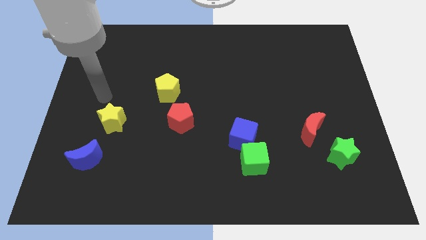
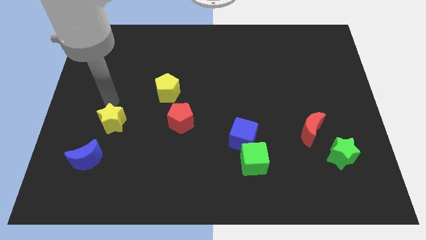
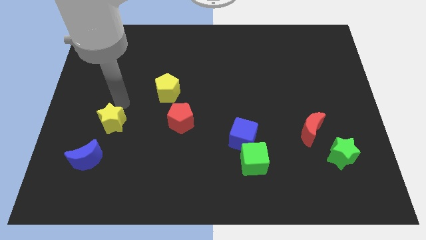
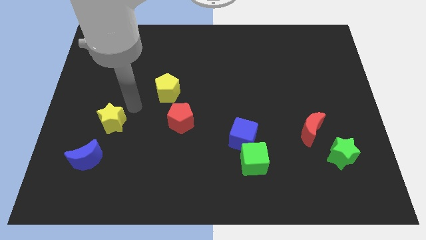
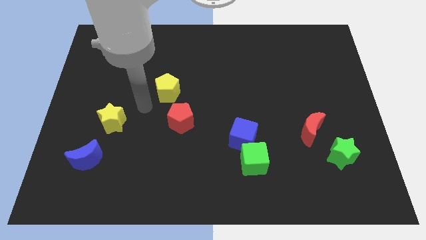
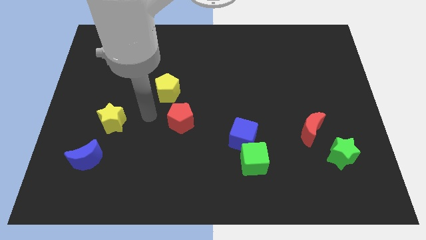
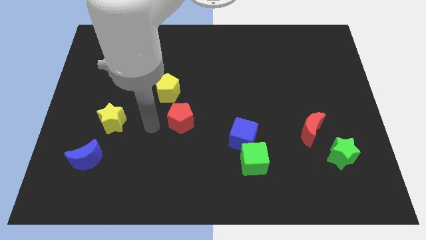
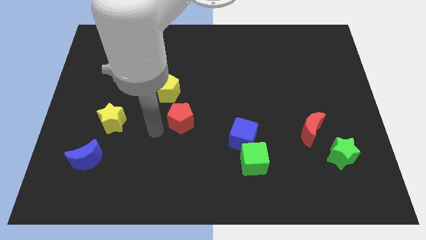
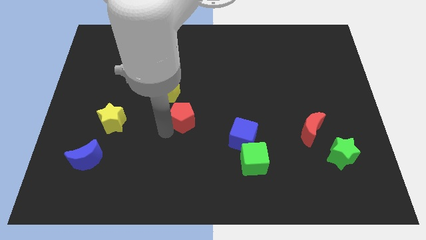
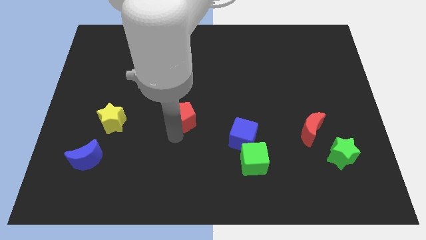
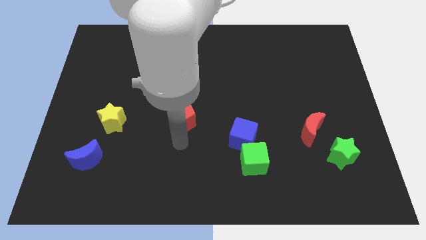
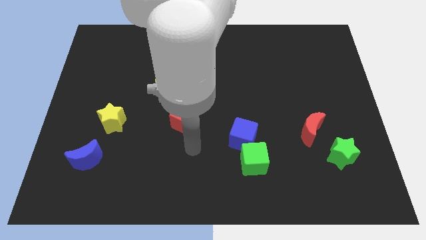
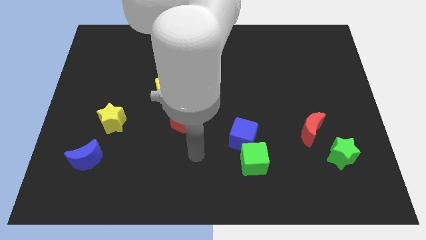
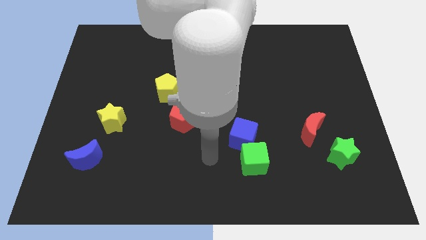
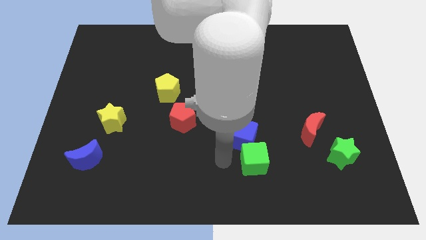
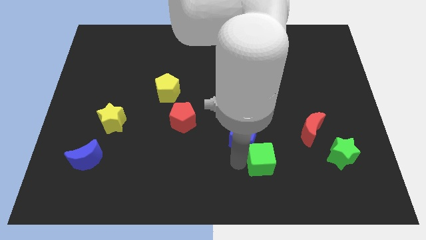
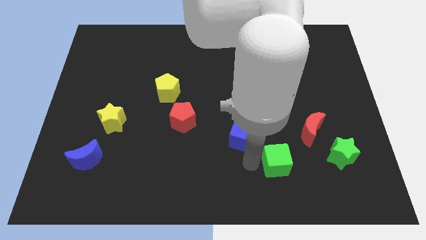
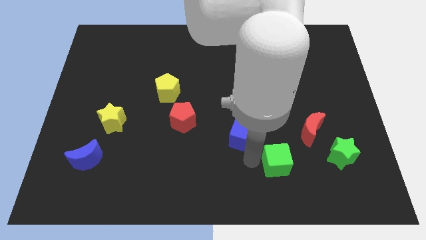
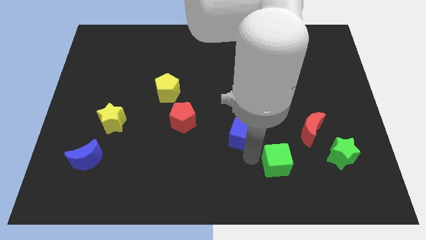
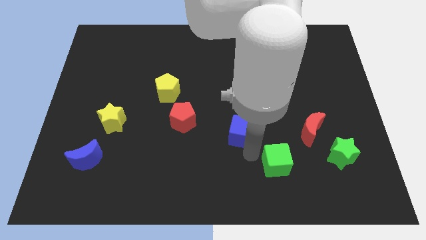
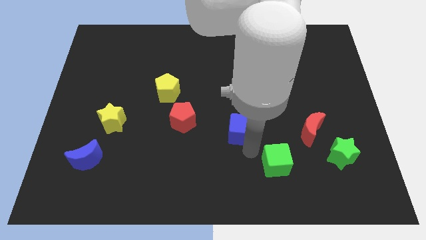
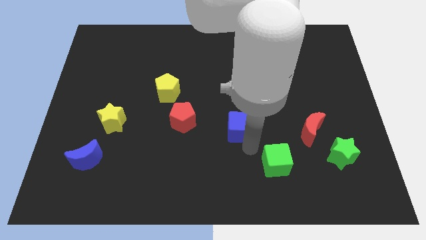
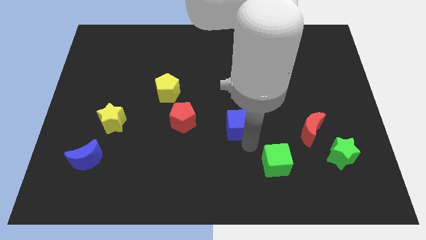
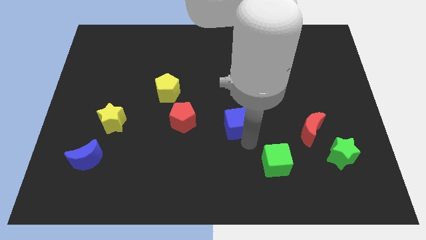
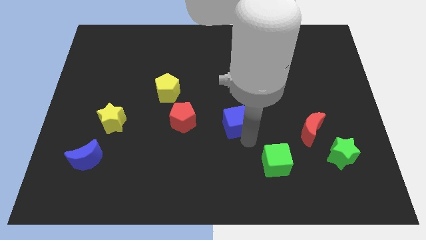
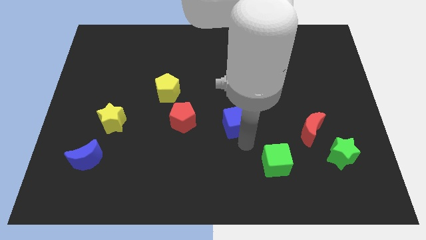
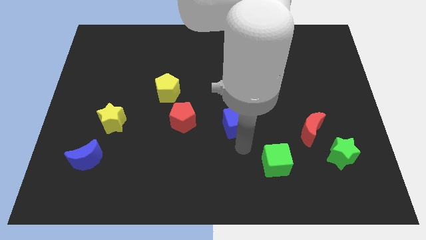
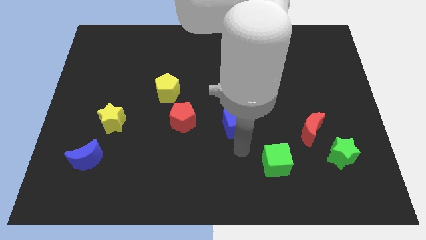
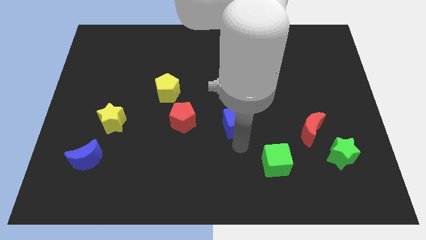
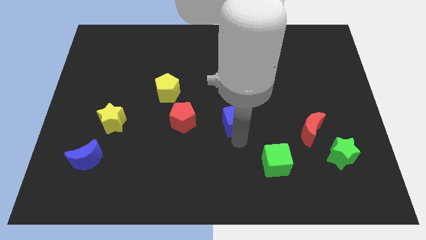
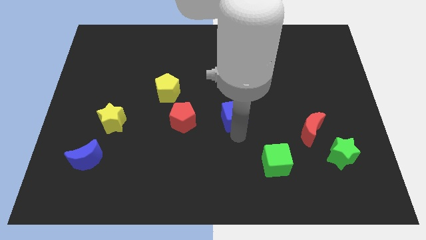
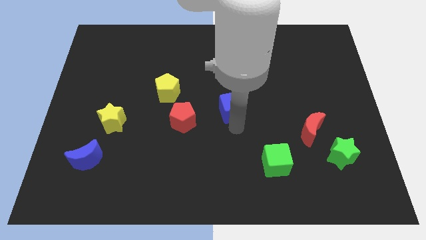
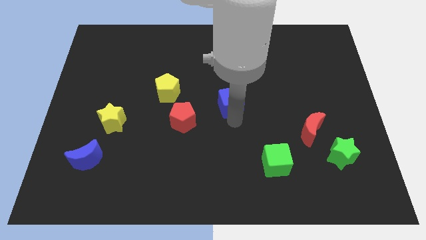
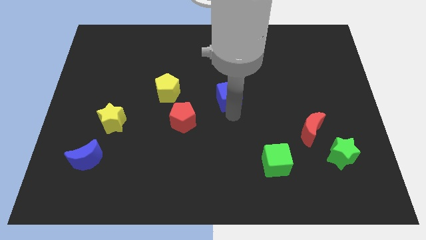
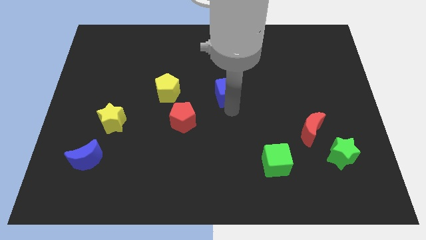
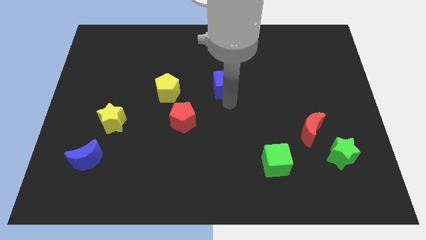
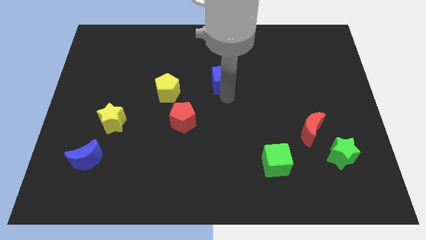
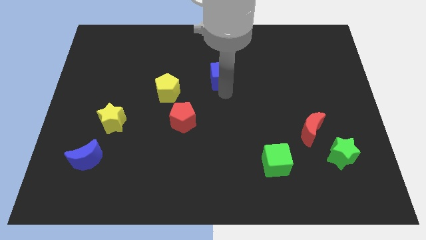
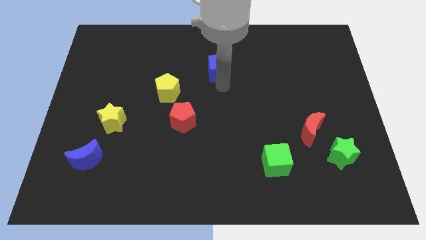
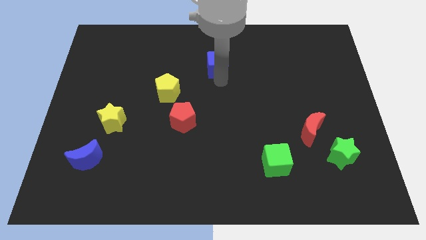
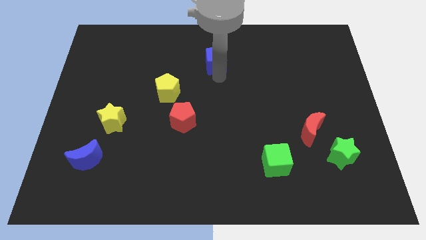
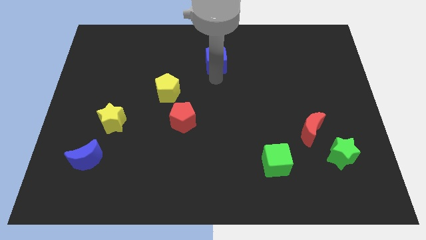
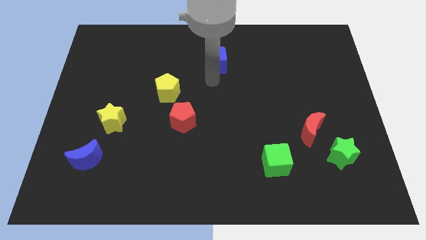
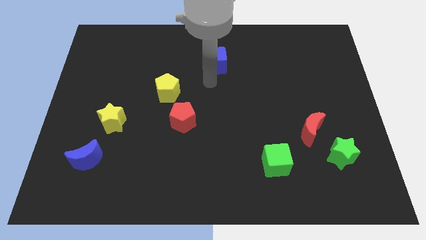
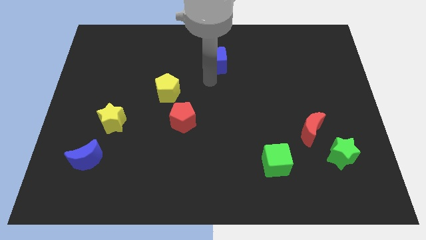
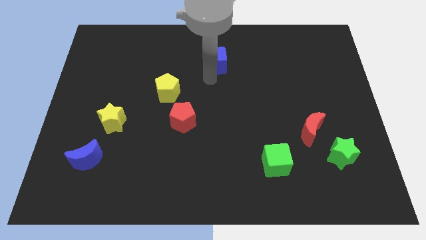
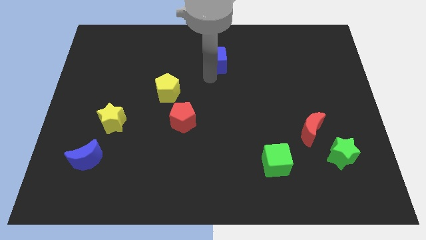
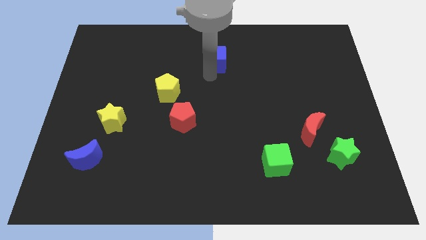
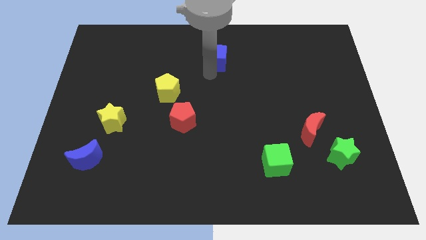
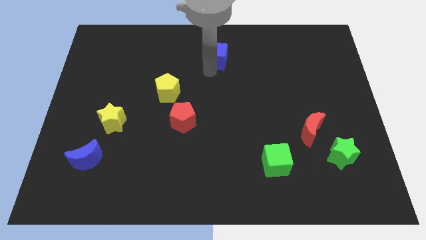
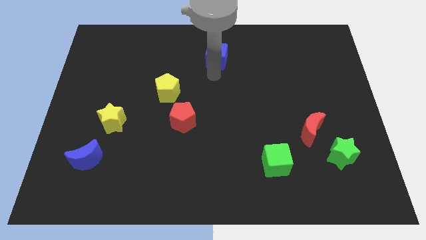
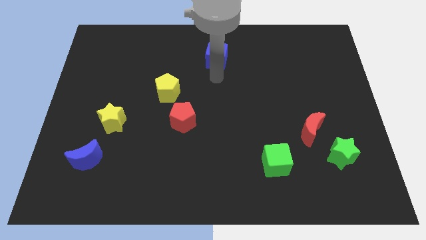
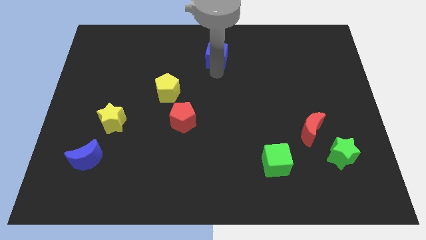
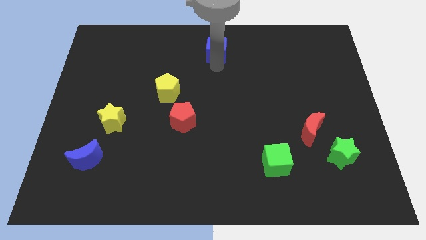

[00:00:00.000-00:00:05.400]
slide the blue cube to the top
